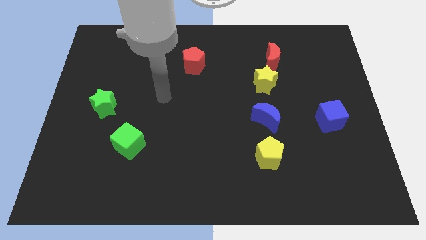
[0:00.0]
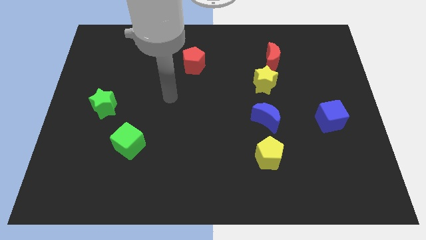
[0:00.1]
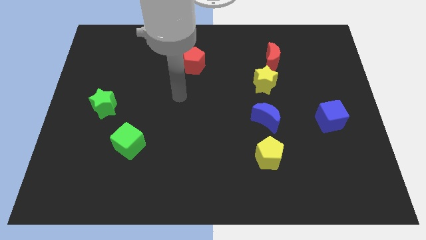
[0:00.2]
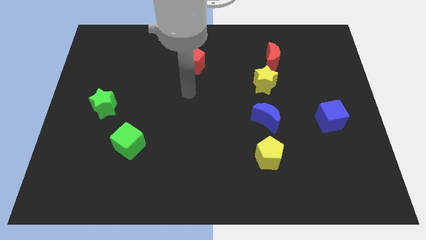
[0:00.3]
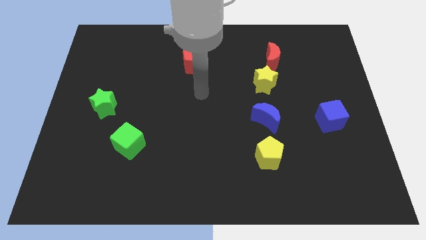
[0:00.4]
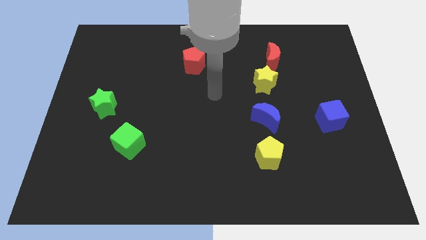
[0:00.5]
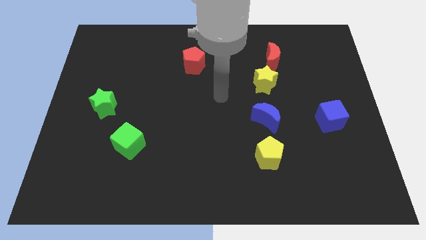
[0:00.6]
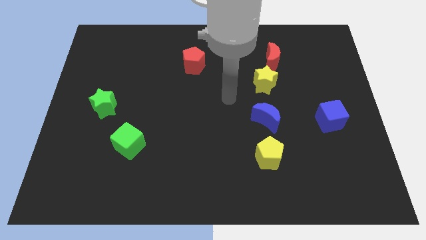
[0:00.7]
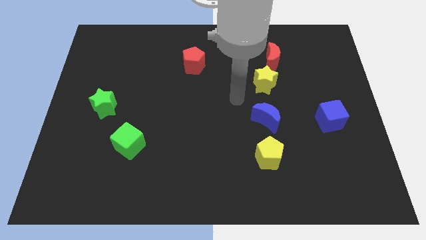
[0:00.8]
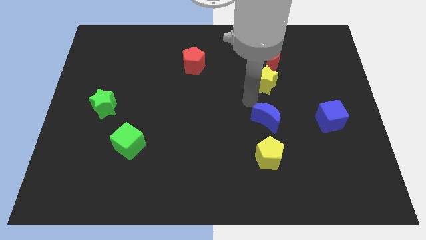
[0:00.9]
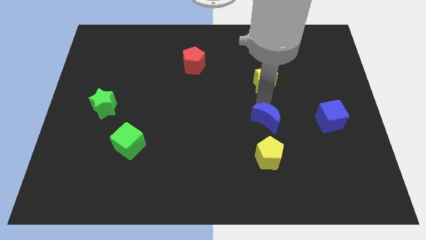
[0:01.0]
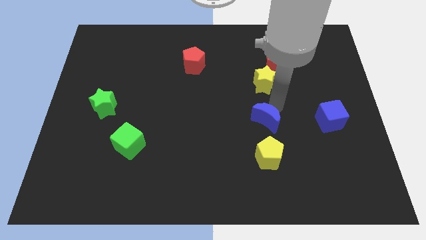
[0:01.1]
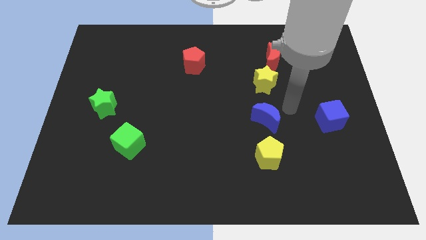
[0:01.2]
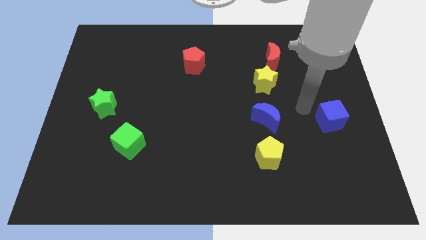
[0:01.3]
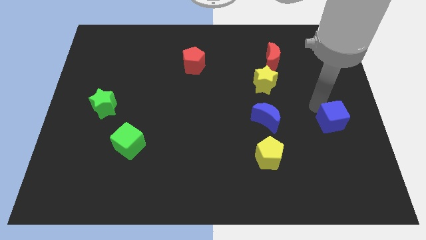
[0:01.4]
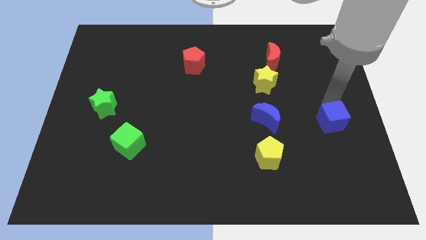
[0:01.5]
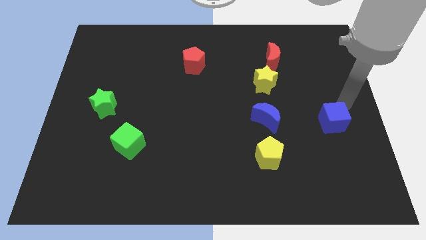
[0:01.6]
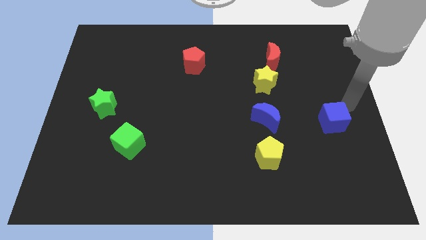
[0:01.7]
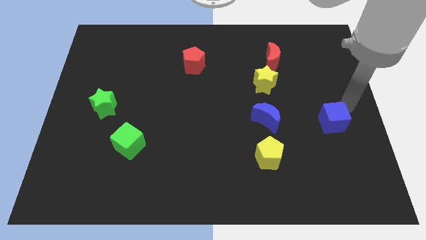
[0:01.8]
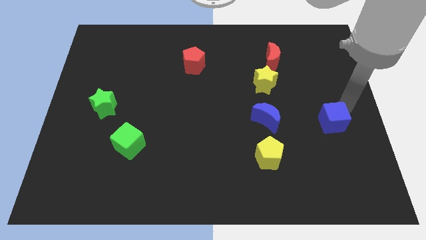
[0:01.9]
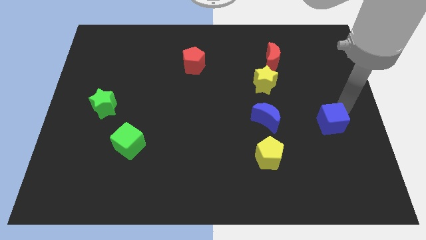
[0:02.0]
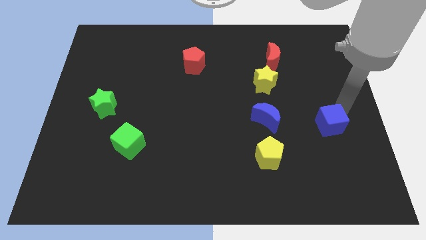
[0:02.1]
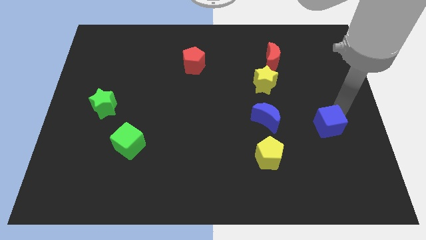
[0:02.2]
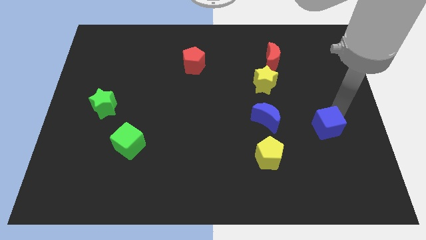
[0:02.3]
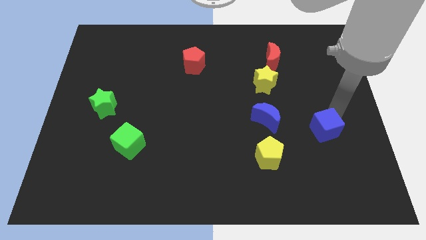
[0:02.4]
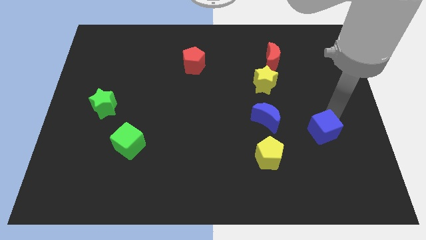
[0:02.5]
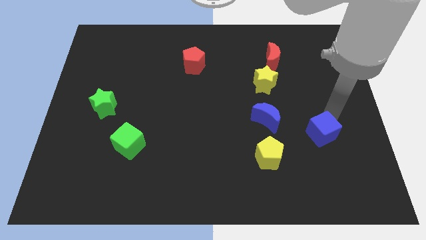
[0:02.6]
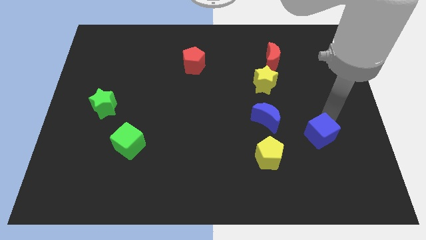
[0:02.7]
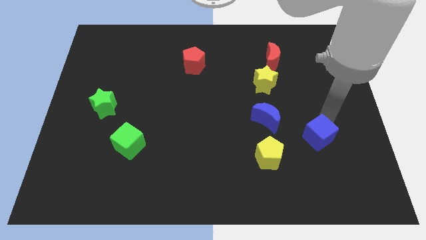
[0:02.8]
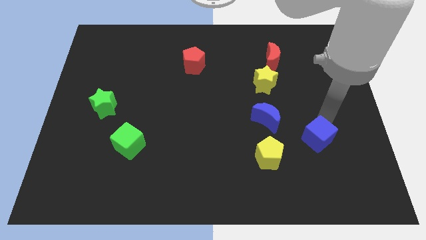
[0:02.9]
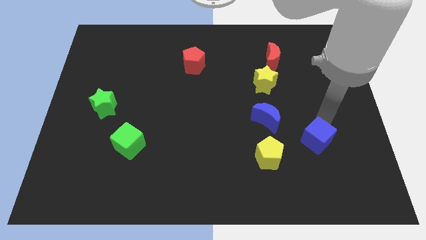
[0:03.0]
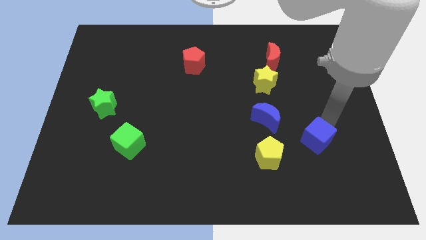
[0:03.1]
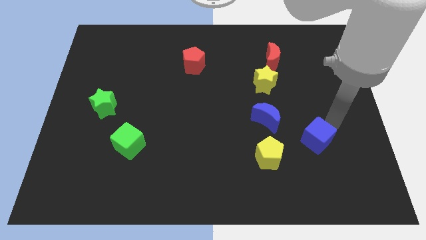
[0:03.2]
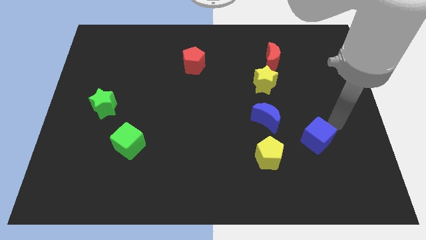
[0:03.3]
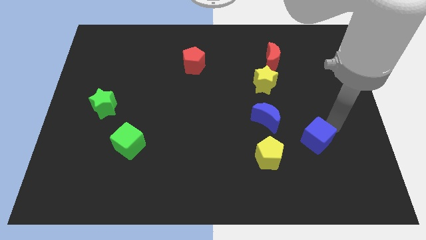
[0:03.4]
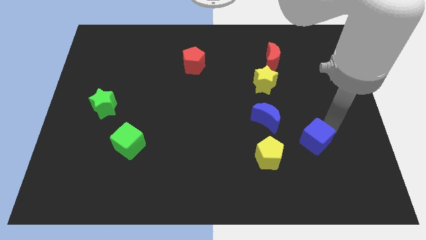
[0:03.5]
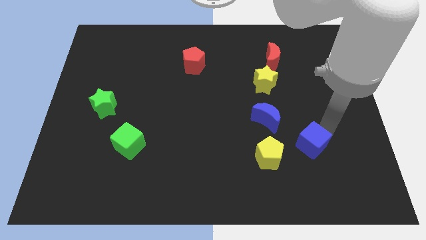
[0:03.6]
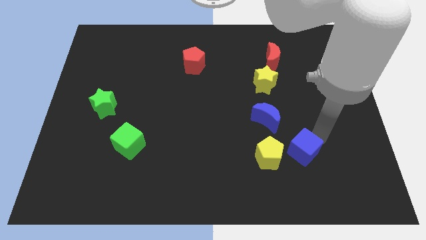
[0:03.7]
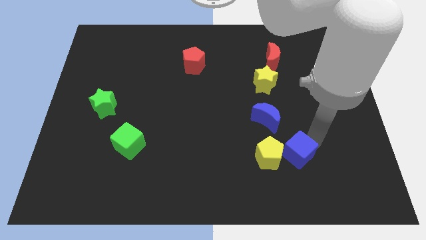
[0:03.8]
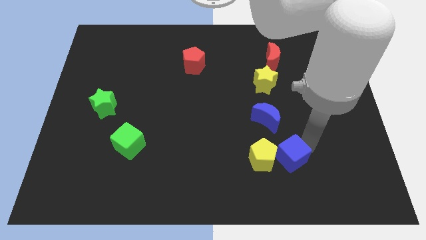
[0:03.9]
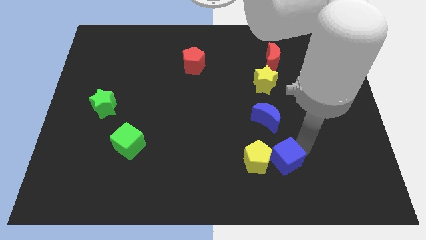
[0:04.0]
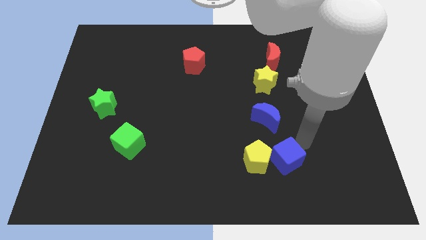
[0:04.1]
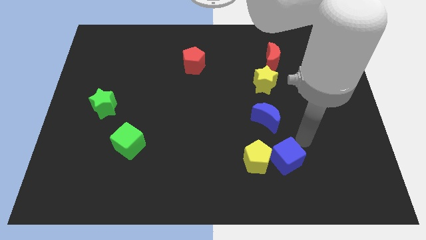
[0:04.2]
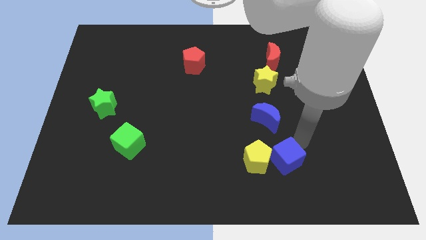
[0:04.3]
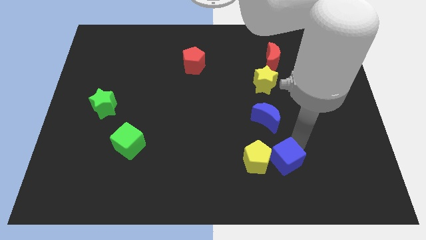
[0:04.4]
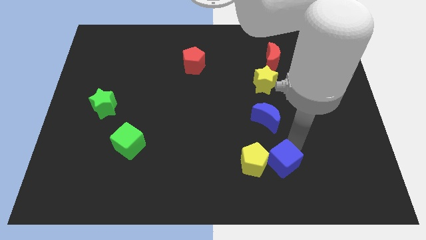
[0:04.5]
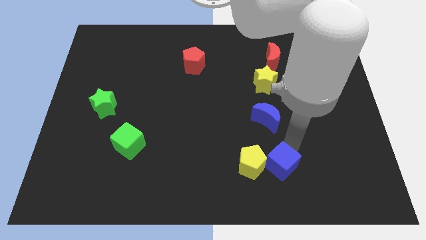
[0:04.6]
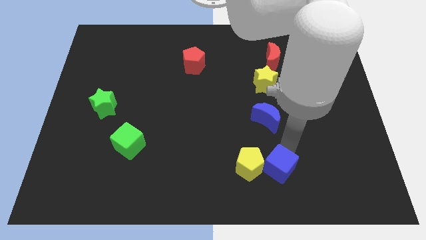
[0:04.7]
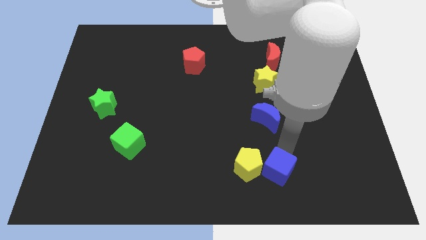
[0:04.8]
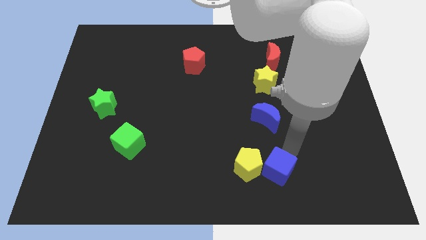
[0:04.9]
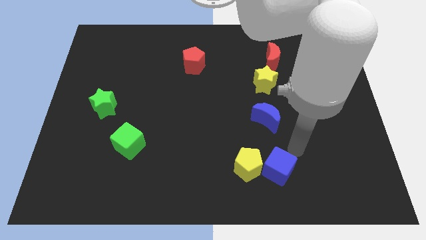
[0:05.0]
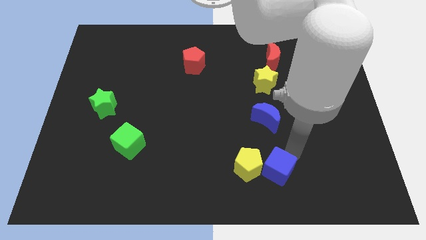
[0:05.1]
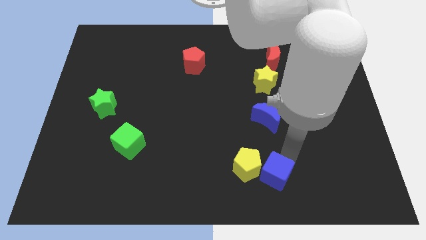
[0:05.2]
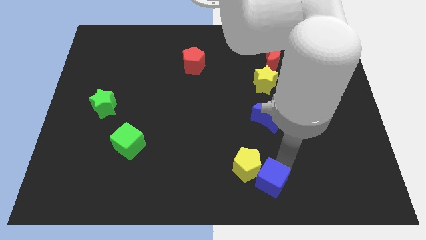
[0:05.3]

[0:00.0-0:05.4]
slide the blue cube to the bottom side

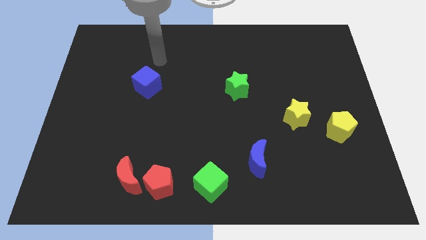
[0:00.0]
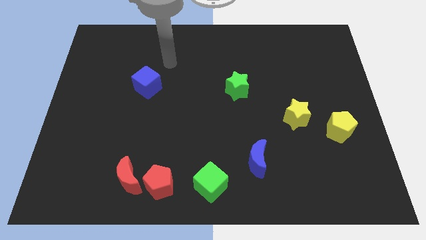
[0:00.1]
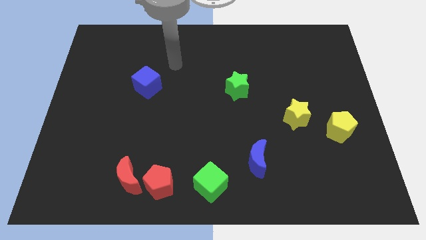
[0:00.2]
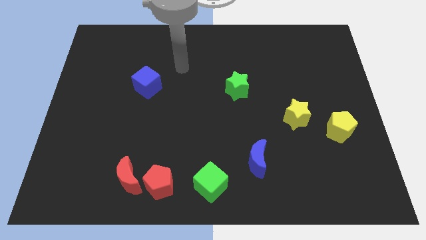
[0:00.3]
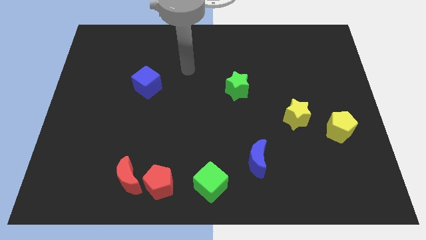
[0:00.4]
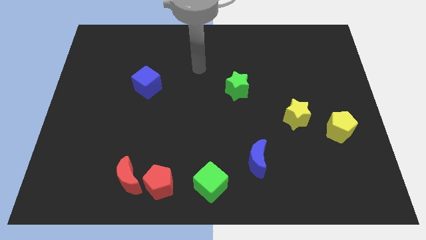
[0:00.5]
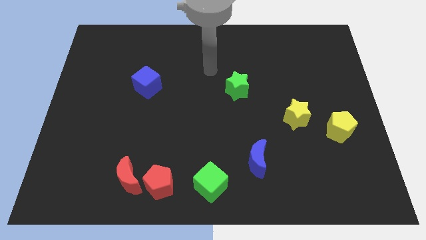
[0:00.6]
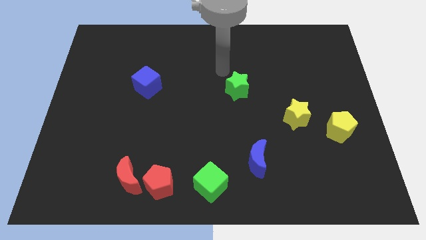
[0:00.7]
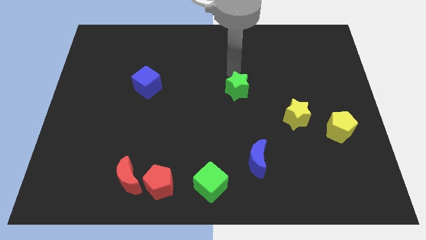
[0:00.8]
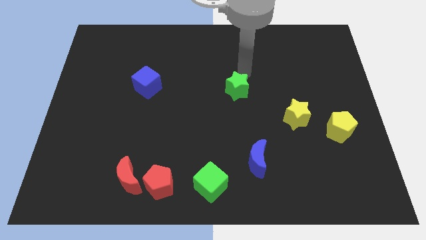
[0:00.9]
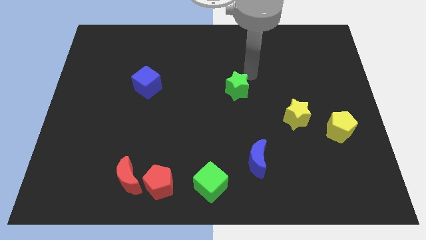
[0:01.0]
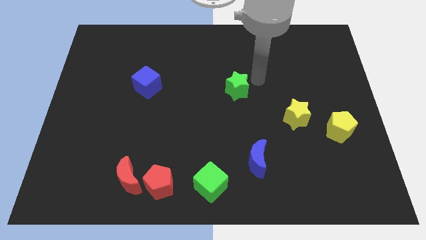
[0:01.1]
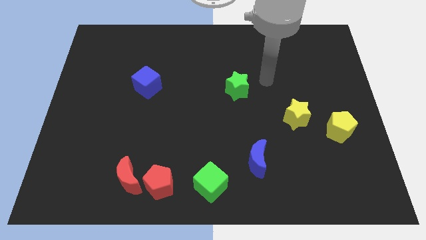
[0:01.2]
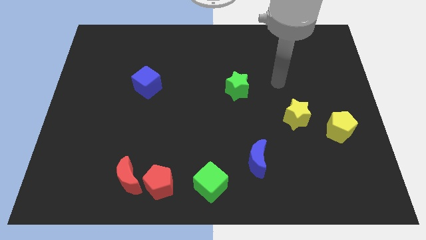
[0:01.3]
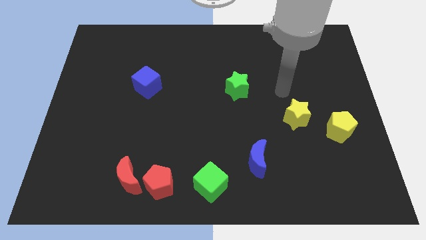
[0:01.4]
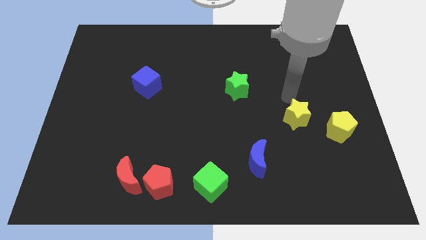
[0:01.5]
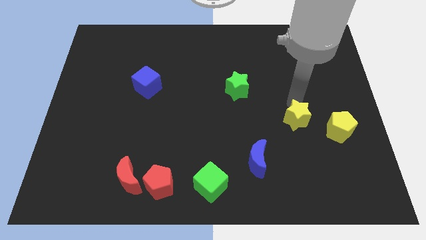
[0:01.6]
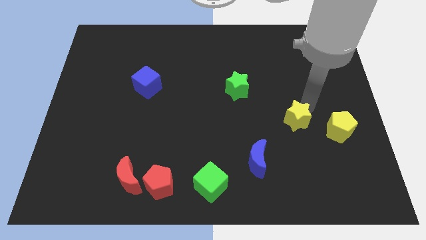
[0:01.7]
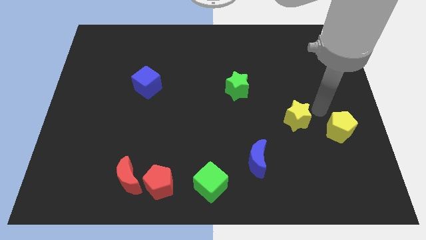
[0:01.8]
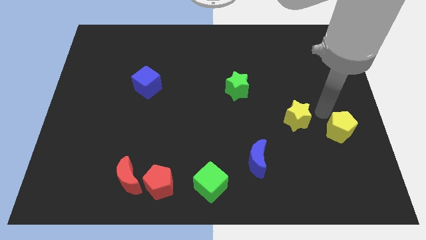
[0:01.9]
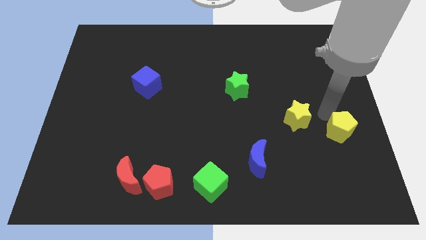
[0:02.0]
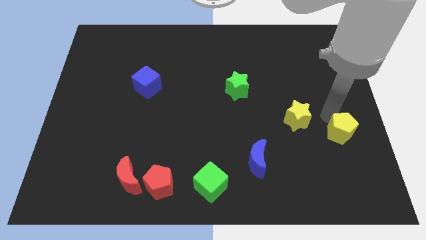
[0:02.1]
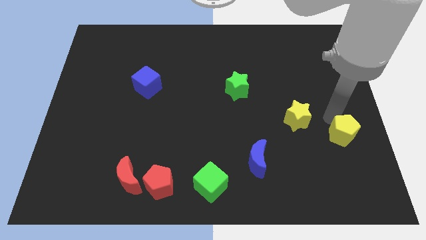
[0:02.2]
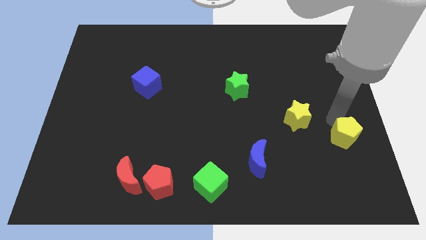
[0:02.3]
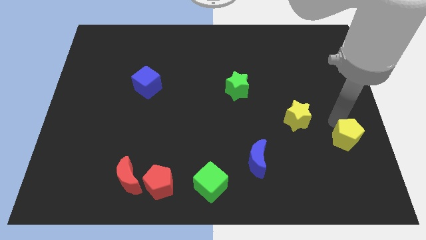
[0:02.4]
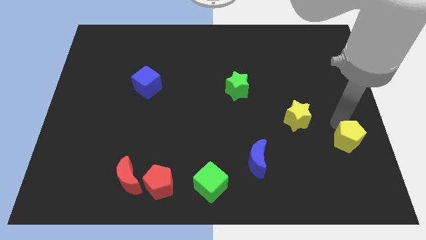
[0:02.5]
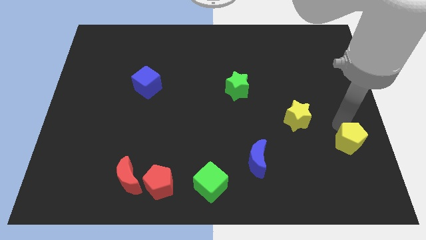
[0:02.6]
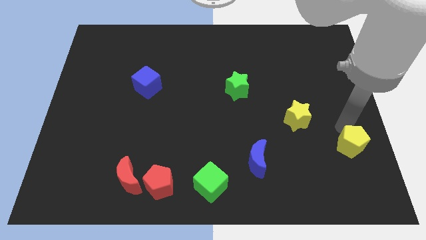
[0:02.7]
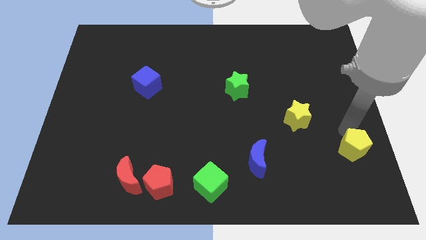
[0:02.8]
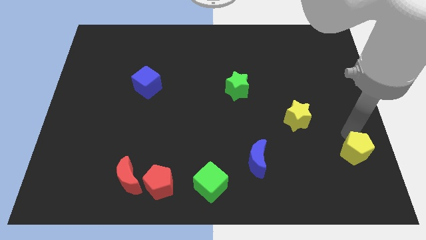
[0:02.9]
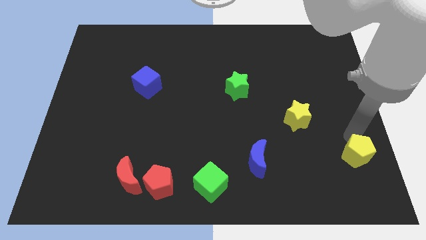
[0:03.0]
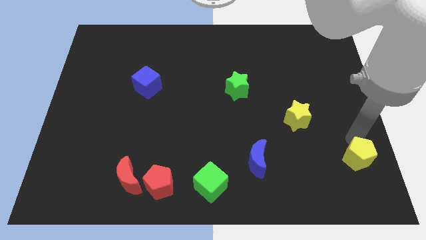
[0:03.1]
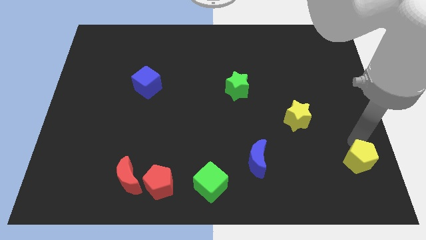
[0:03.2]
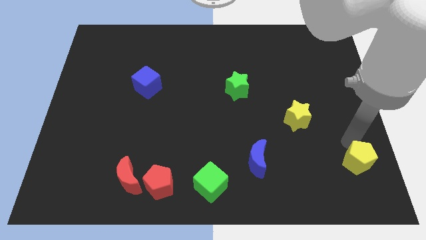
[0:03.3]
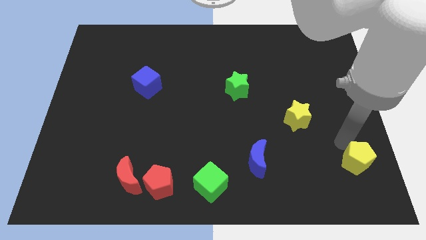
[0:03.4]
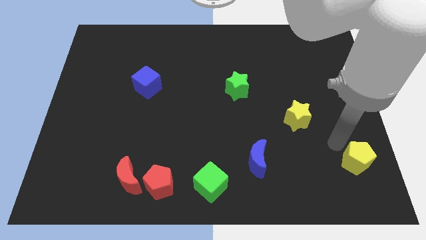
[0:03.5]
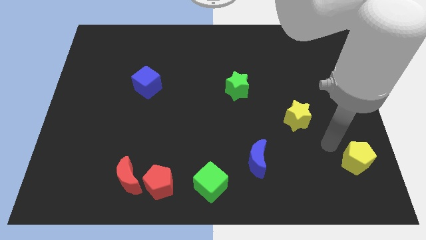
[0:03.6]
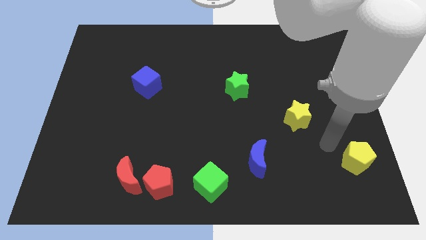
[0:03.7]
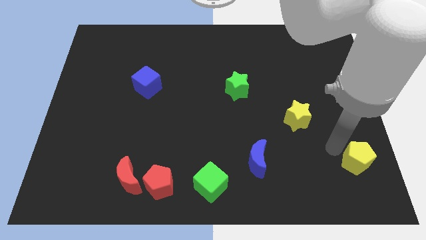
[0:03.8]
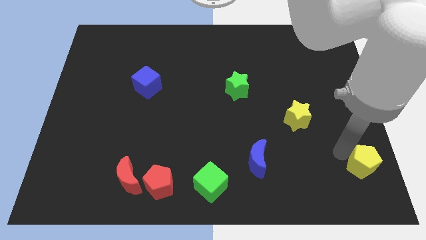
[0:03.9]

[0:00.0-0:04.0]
slide the yellow pentagon to the lower right corner
